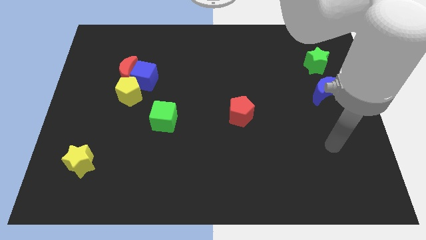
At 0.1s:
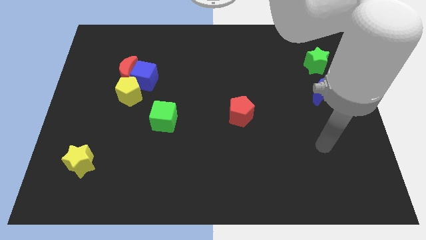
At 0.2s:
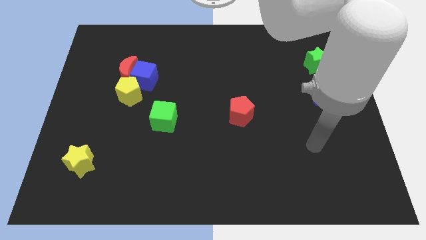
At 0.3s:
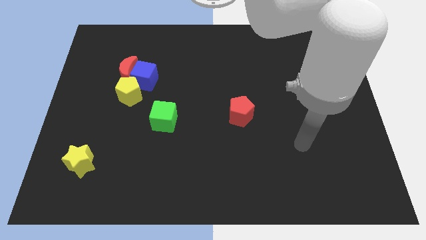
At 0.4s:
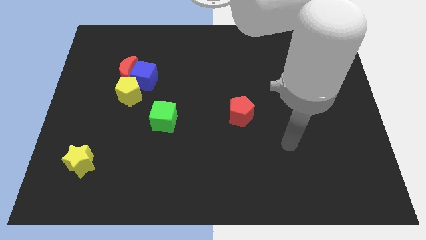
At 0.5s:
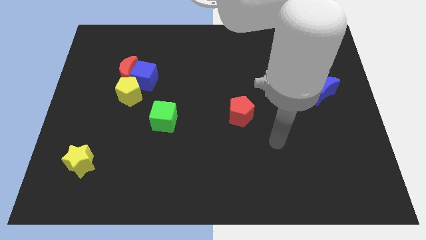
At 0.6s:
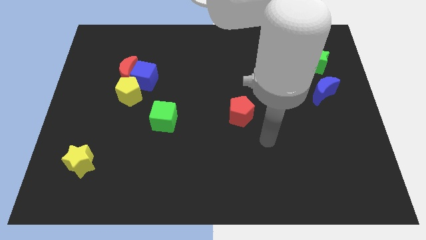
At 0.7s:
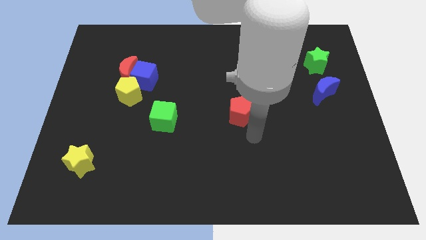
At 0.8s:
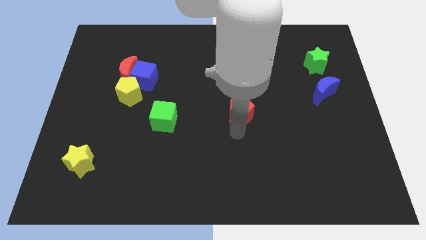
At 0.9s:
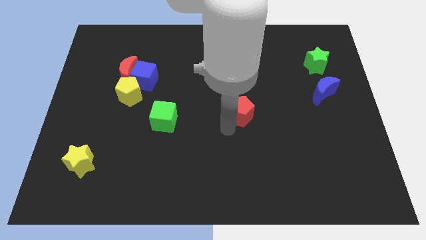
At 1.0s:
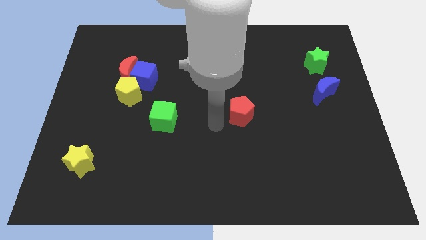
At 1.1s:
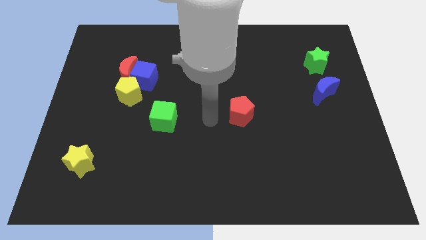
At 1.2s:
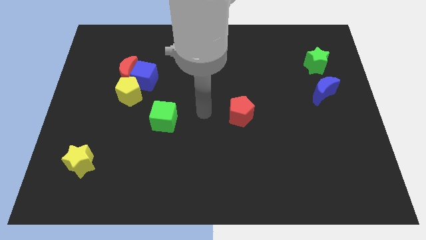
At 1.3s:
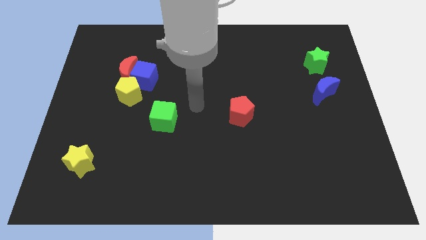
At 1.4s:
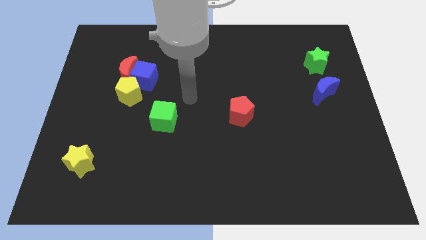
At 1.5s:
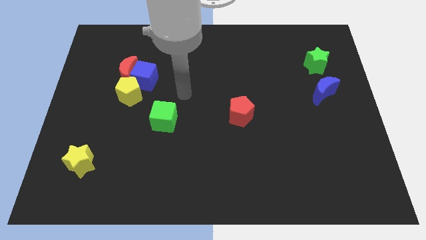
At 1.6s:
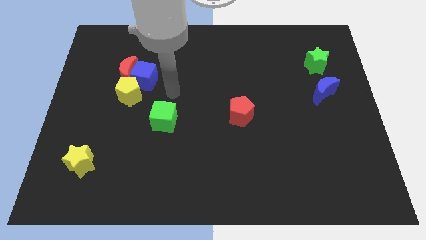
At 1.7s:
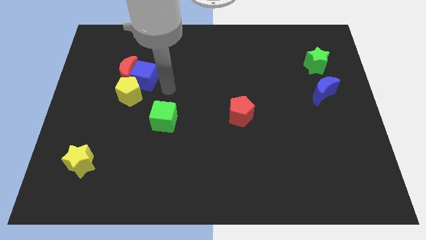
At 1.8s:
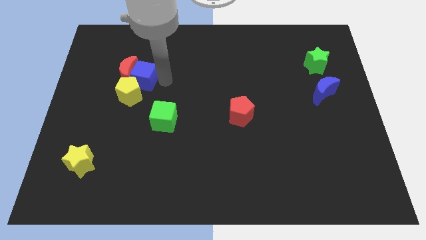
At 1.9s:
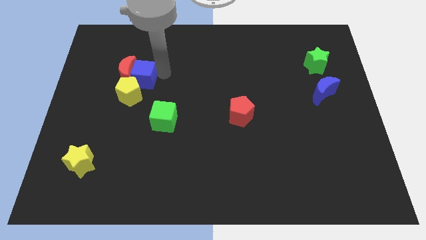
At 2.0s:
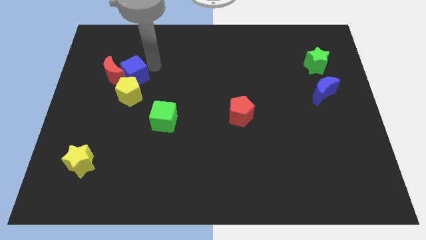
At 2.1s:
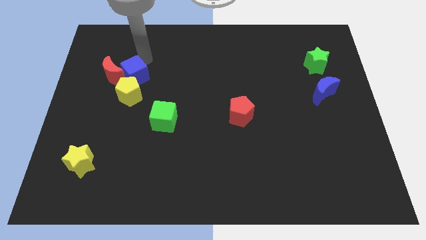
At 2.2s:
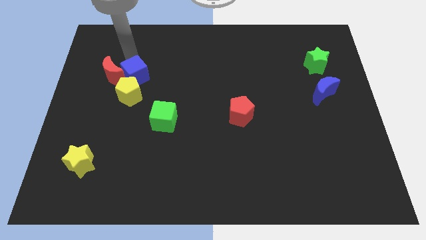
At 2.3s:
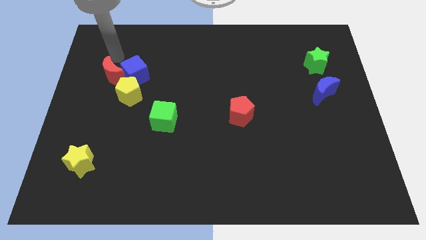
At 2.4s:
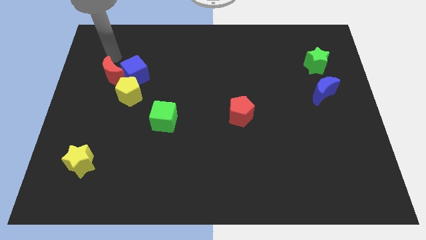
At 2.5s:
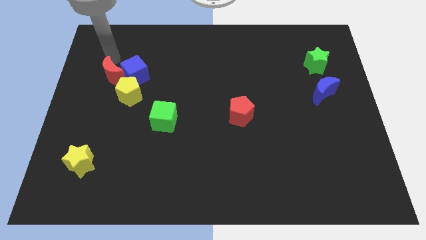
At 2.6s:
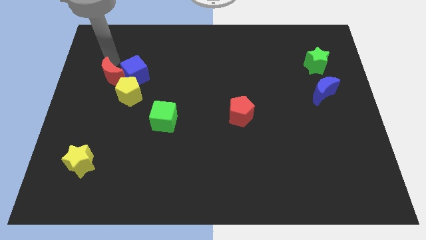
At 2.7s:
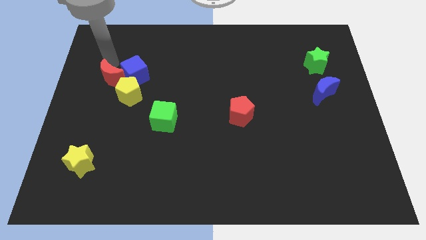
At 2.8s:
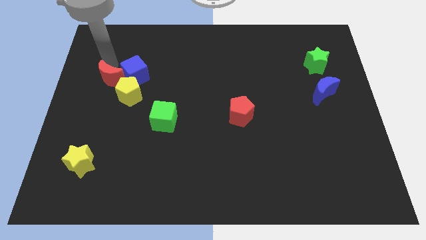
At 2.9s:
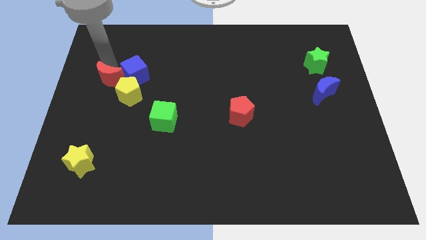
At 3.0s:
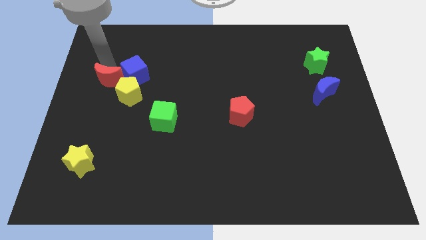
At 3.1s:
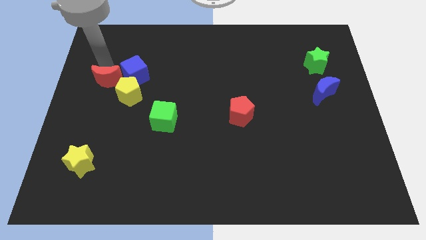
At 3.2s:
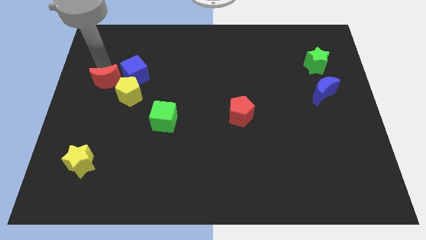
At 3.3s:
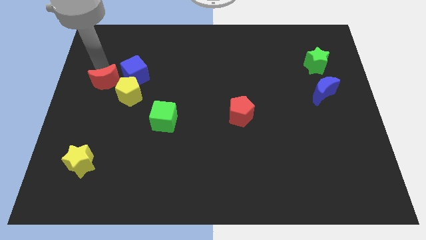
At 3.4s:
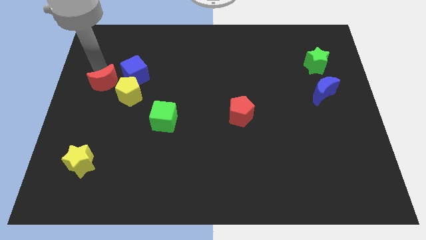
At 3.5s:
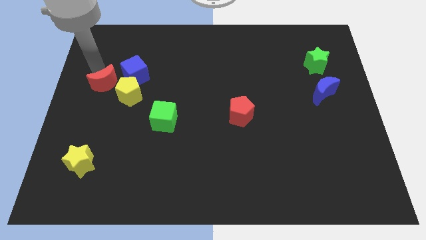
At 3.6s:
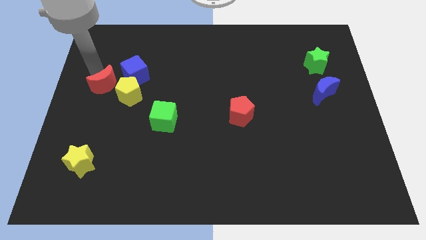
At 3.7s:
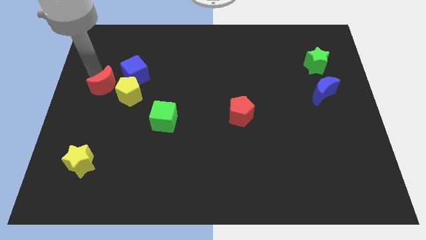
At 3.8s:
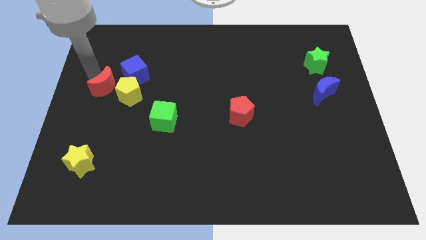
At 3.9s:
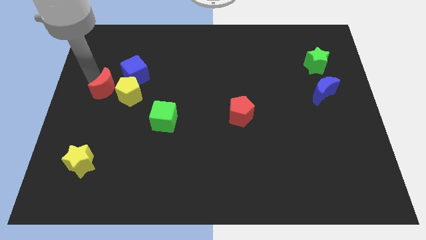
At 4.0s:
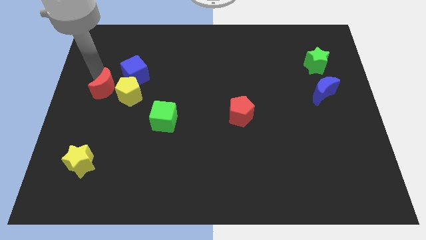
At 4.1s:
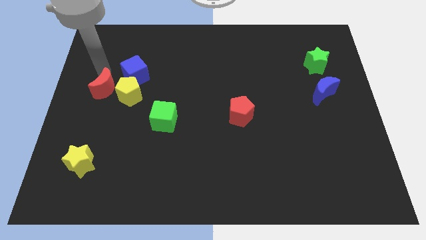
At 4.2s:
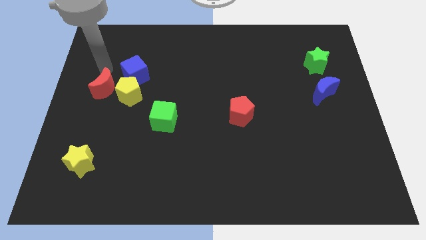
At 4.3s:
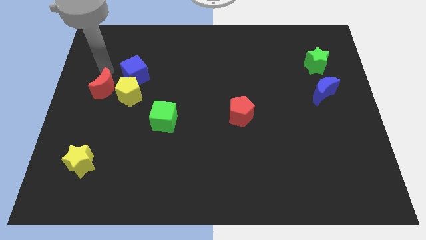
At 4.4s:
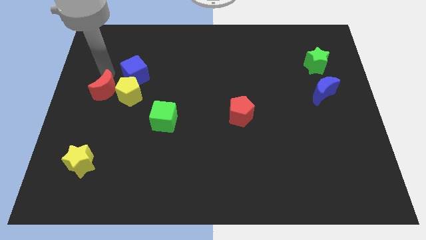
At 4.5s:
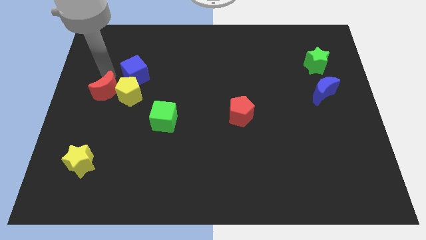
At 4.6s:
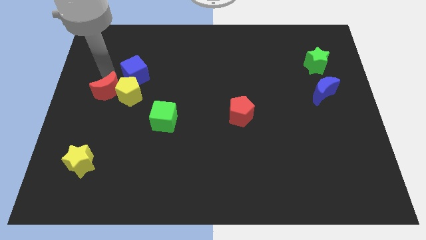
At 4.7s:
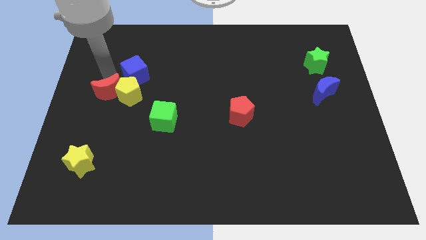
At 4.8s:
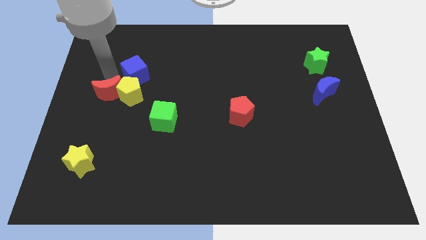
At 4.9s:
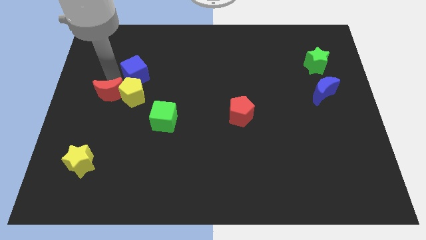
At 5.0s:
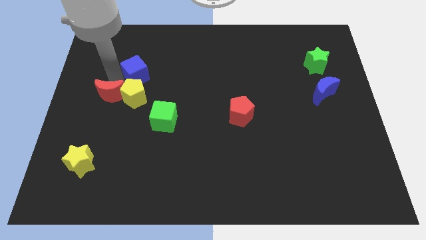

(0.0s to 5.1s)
slide the red moon to the bottom side of the blue cube

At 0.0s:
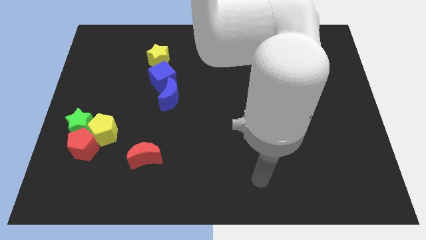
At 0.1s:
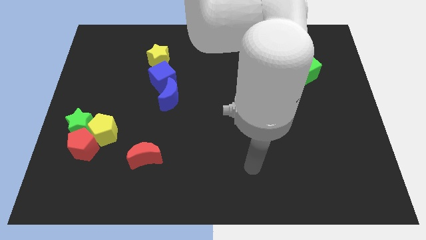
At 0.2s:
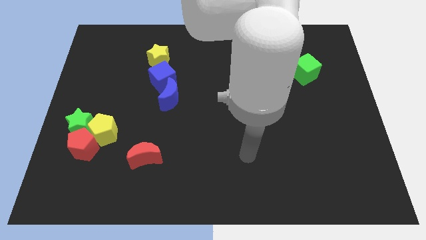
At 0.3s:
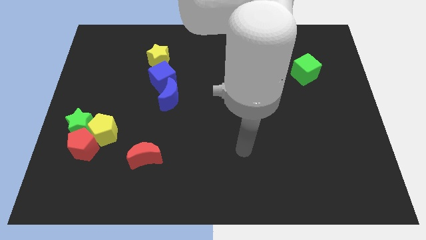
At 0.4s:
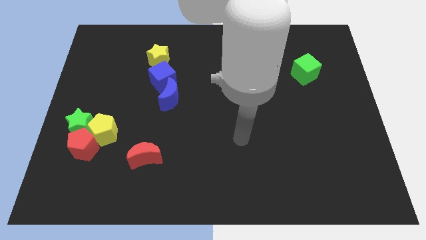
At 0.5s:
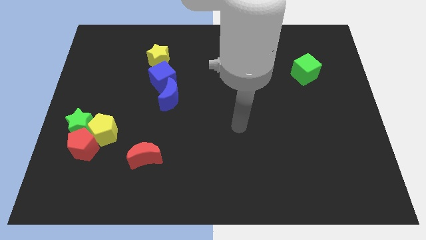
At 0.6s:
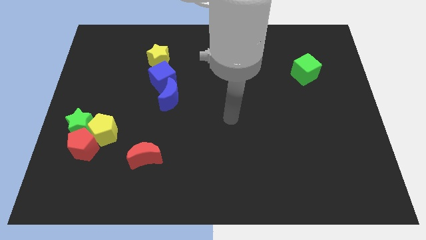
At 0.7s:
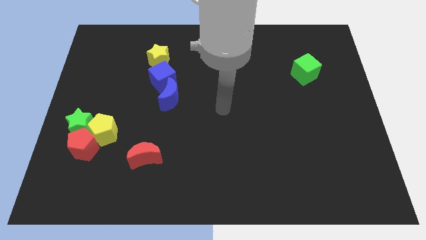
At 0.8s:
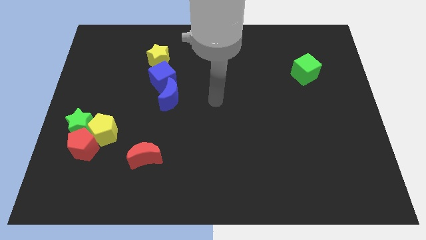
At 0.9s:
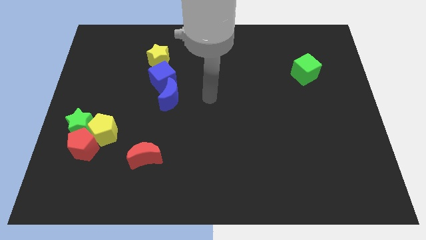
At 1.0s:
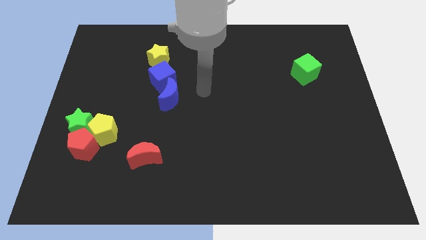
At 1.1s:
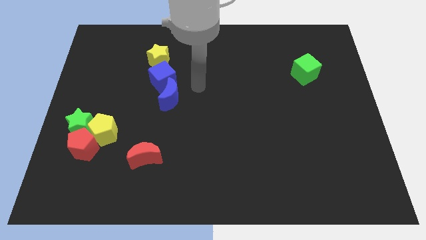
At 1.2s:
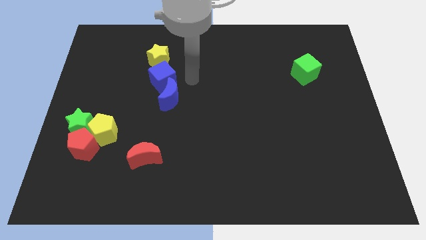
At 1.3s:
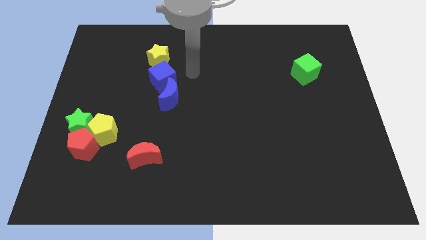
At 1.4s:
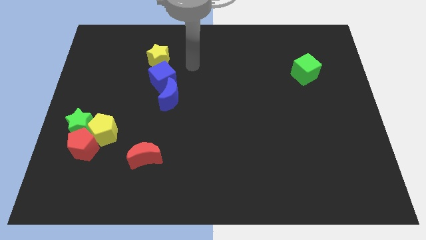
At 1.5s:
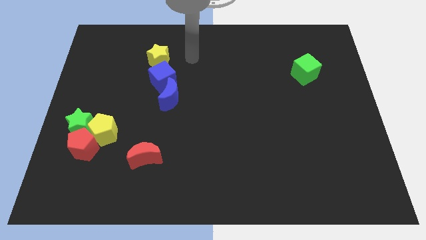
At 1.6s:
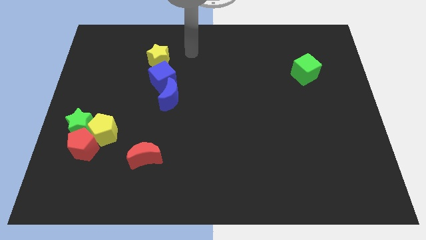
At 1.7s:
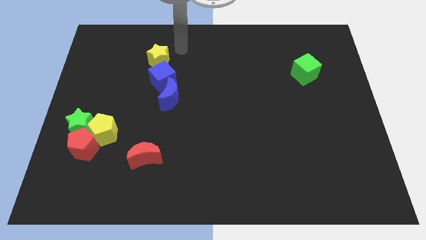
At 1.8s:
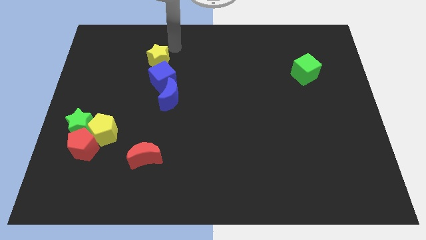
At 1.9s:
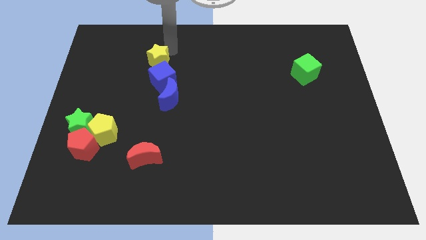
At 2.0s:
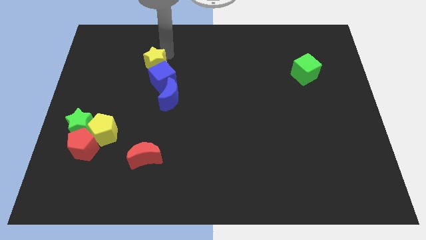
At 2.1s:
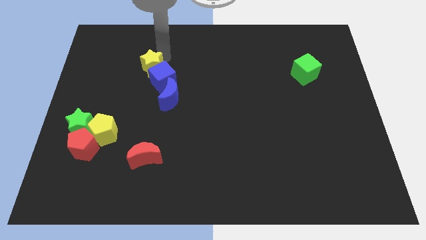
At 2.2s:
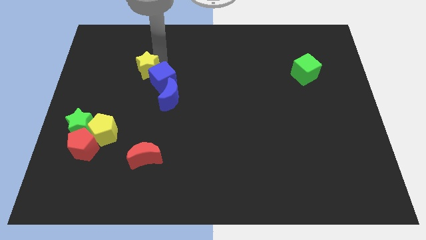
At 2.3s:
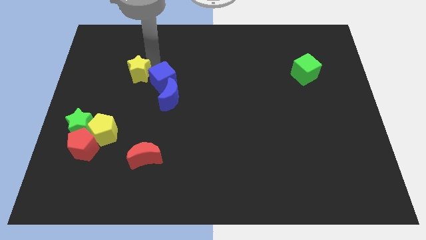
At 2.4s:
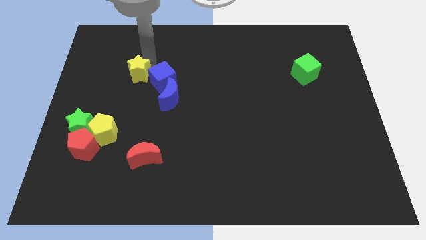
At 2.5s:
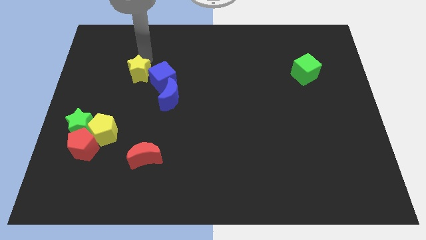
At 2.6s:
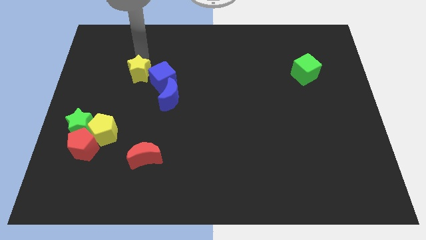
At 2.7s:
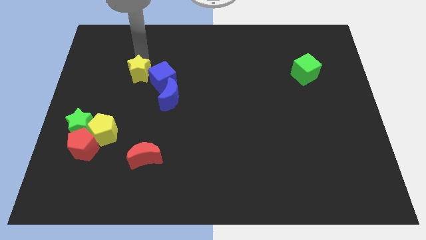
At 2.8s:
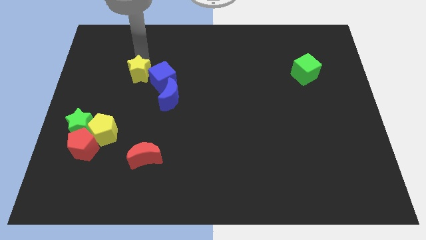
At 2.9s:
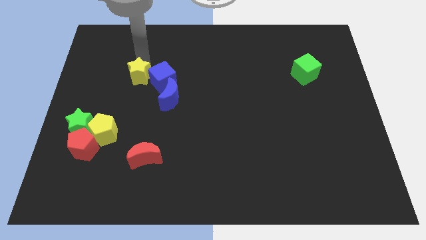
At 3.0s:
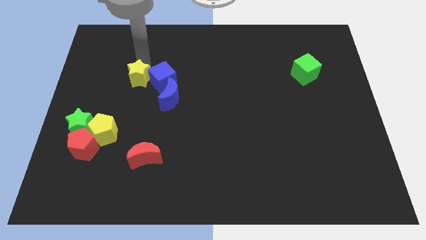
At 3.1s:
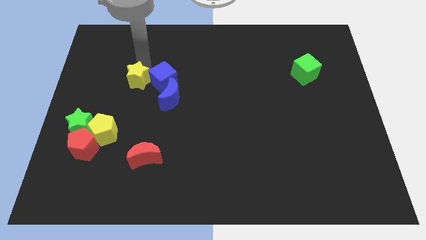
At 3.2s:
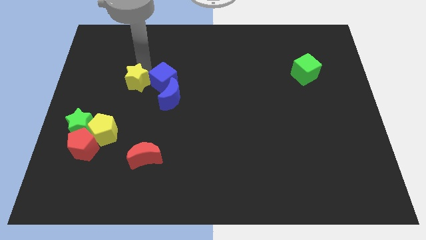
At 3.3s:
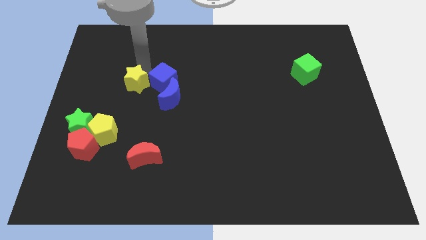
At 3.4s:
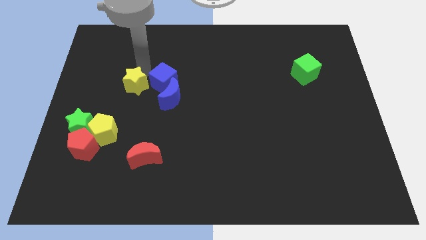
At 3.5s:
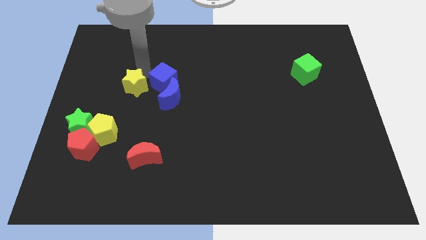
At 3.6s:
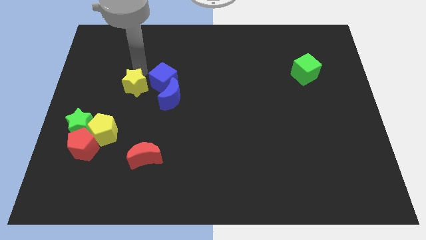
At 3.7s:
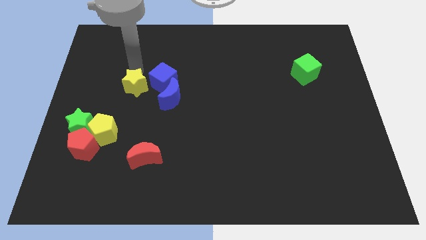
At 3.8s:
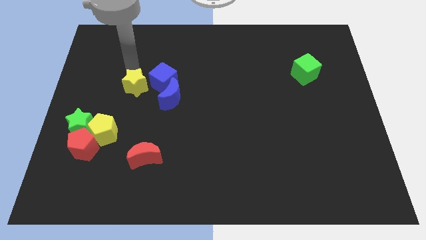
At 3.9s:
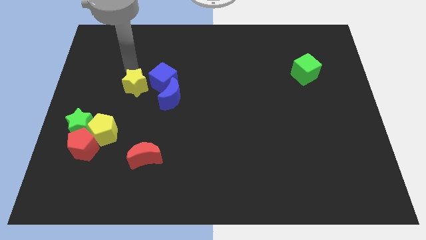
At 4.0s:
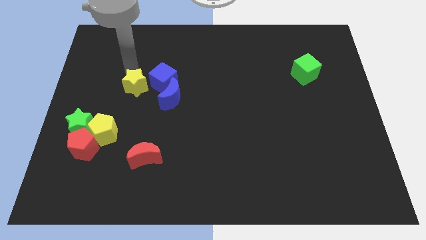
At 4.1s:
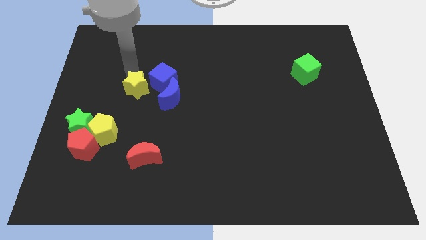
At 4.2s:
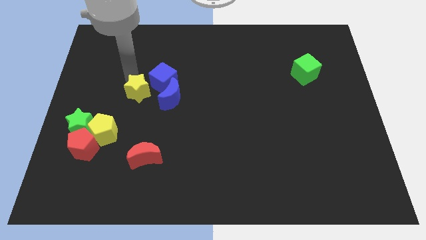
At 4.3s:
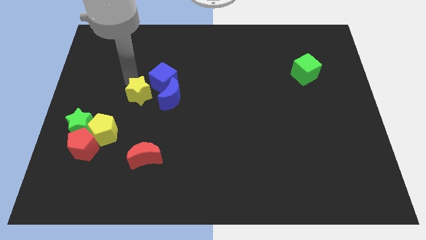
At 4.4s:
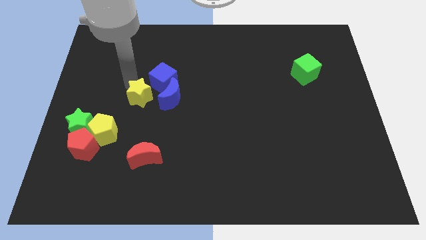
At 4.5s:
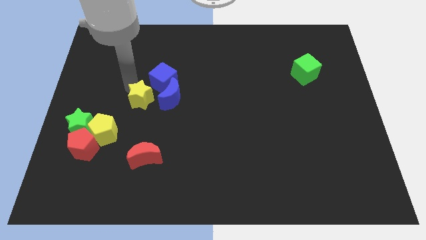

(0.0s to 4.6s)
put the yellow star below the blue cube
